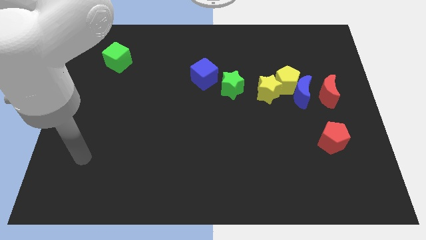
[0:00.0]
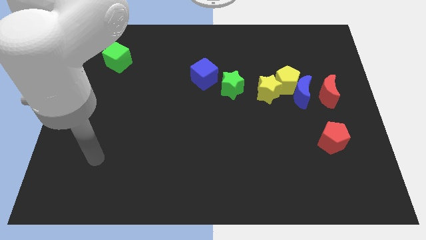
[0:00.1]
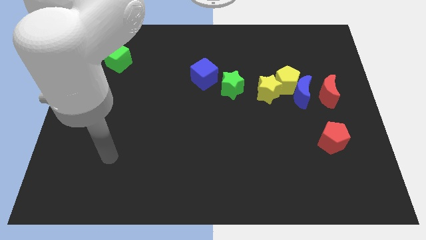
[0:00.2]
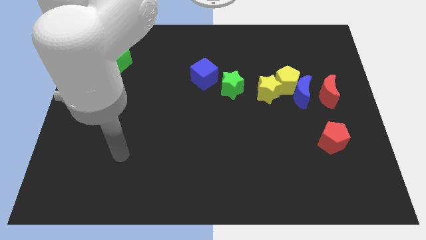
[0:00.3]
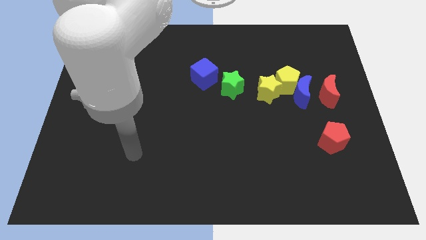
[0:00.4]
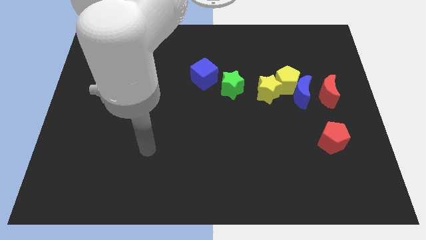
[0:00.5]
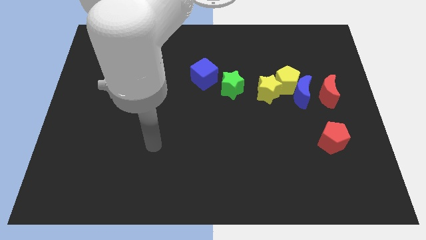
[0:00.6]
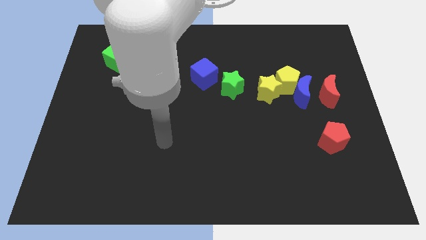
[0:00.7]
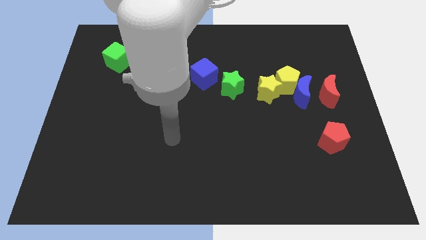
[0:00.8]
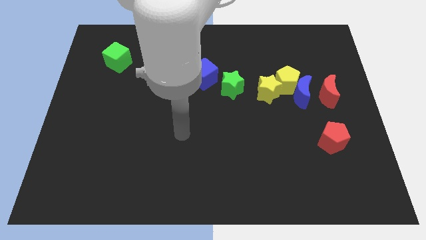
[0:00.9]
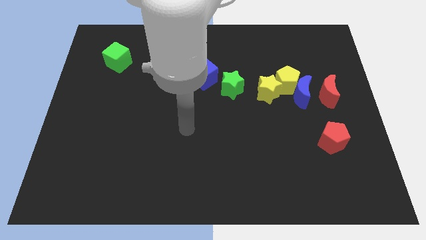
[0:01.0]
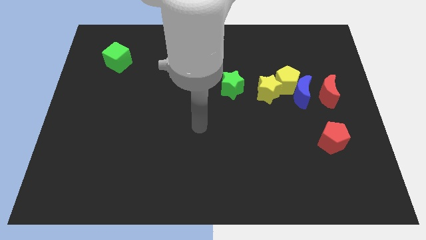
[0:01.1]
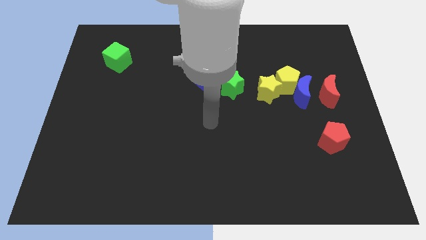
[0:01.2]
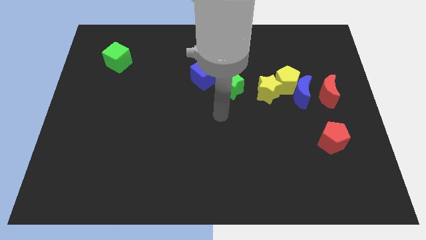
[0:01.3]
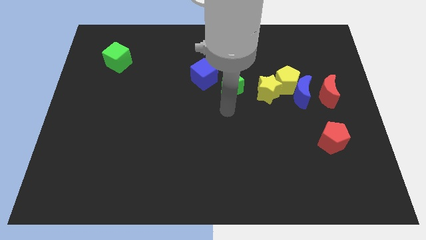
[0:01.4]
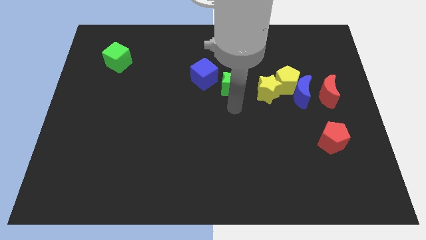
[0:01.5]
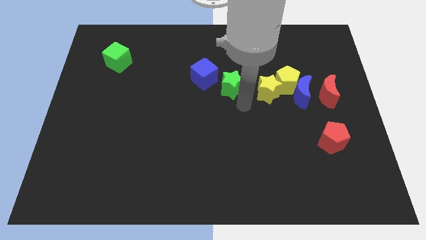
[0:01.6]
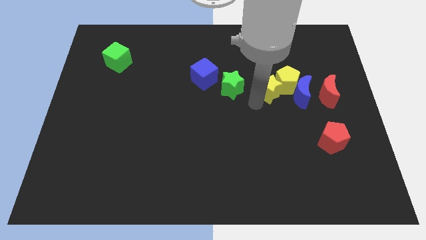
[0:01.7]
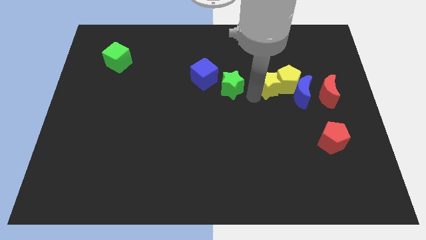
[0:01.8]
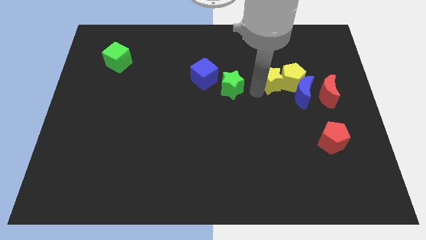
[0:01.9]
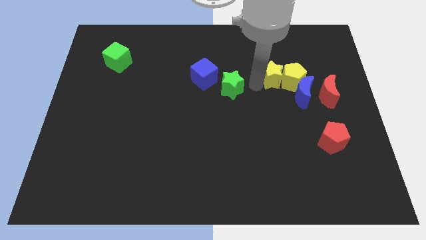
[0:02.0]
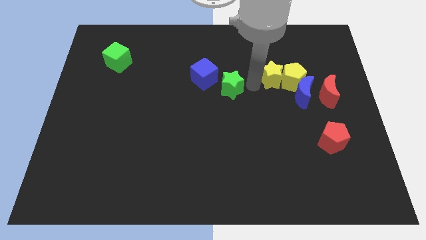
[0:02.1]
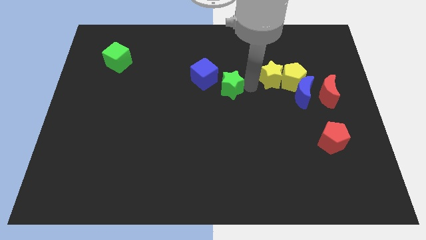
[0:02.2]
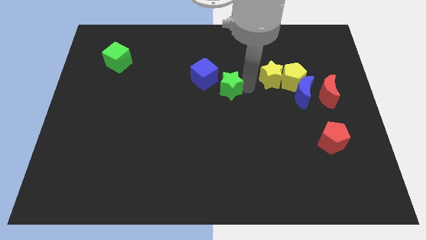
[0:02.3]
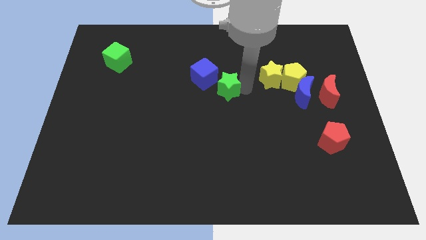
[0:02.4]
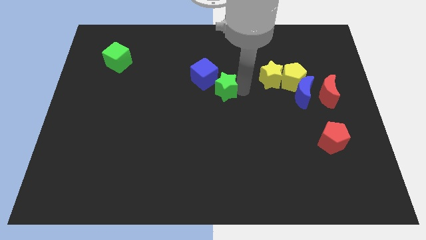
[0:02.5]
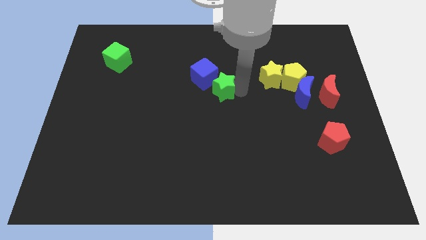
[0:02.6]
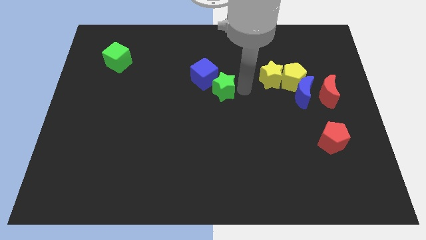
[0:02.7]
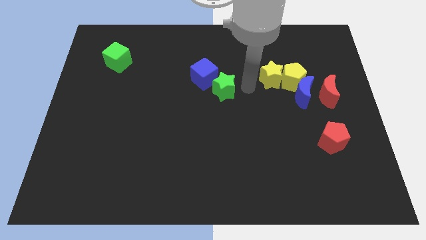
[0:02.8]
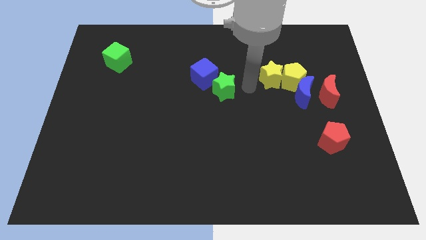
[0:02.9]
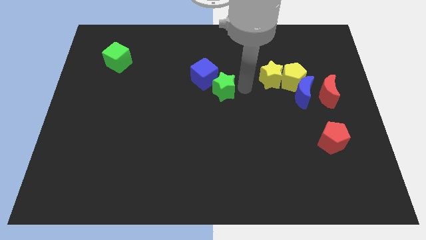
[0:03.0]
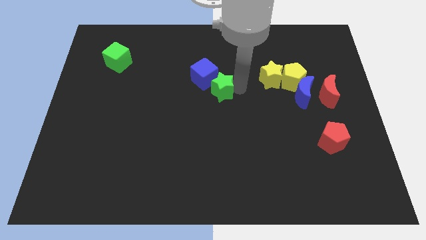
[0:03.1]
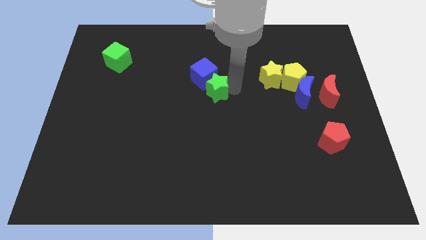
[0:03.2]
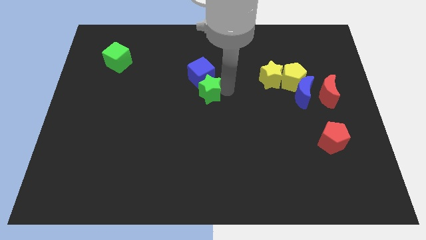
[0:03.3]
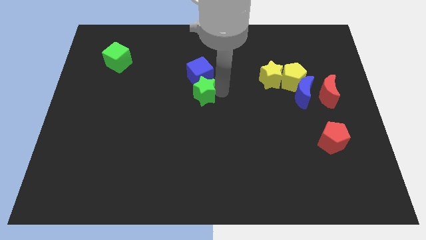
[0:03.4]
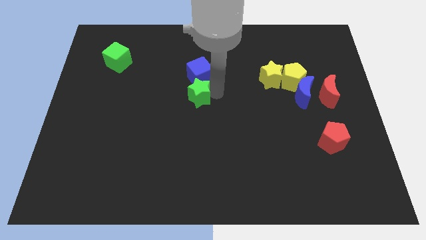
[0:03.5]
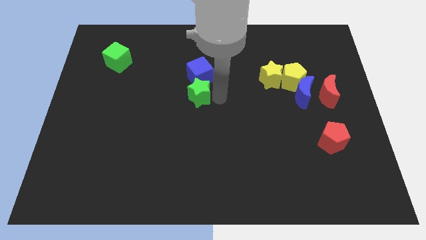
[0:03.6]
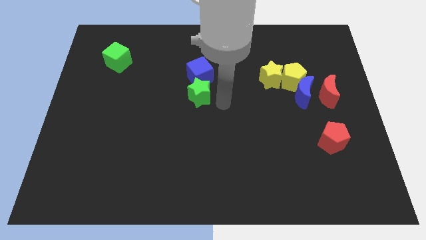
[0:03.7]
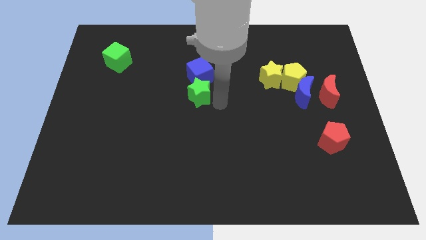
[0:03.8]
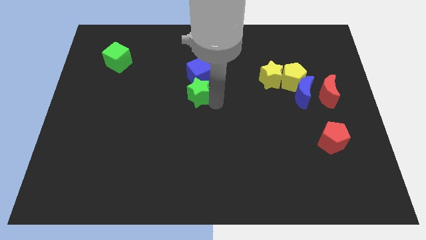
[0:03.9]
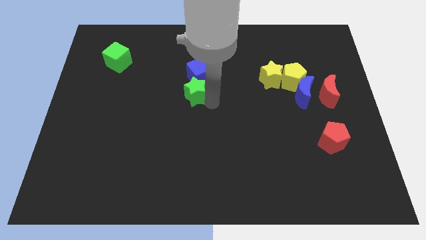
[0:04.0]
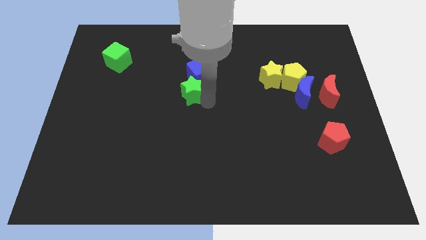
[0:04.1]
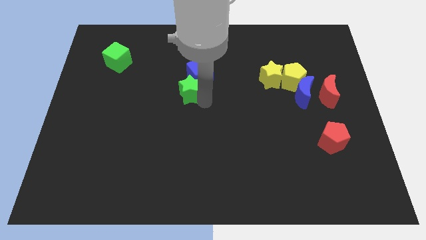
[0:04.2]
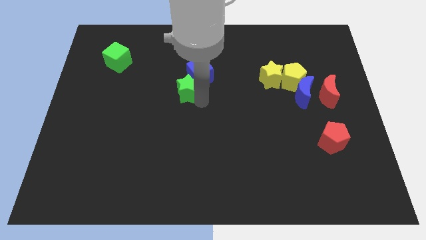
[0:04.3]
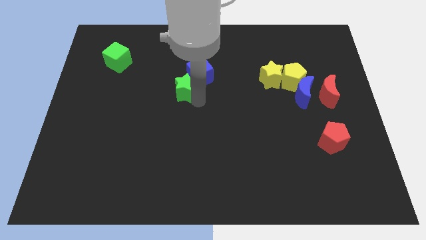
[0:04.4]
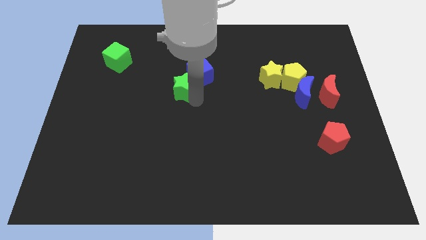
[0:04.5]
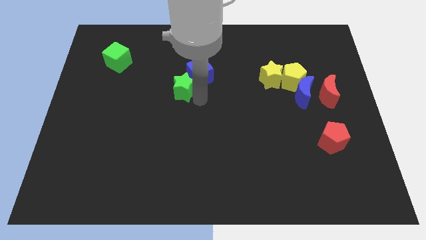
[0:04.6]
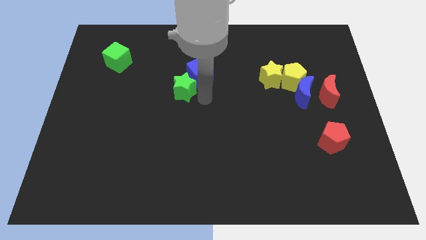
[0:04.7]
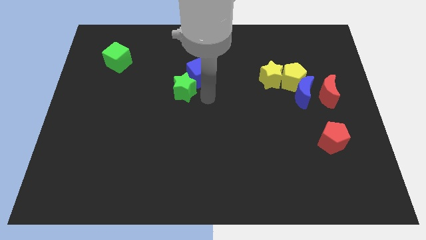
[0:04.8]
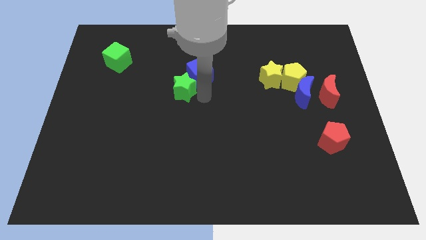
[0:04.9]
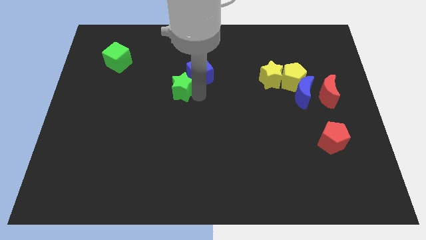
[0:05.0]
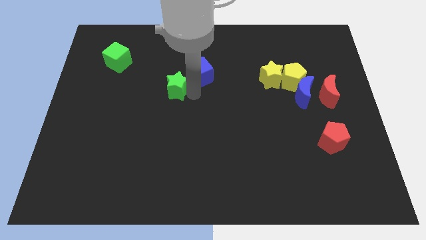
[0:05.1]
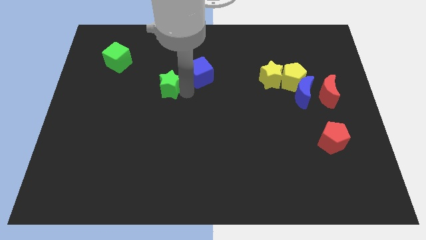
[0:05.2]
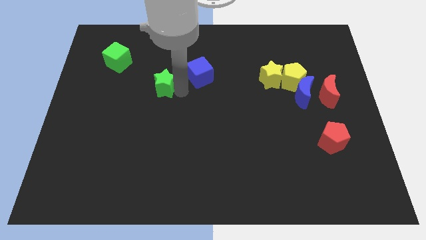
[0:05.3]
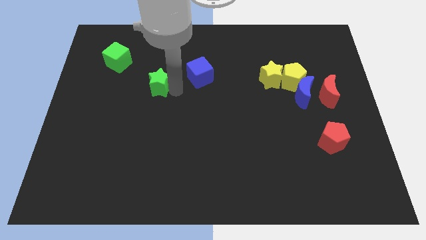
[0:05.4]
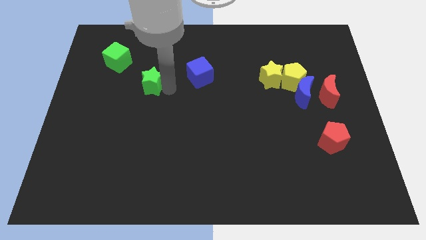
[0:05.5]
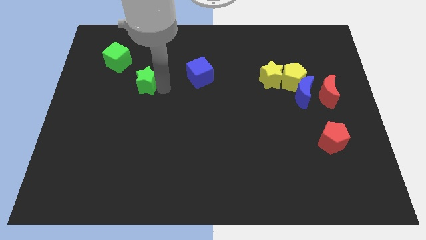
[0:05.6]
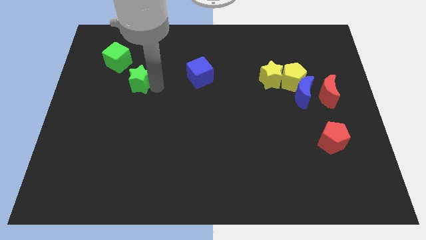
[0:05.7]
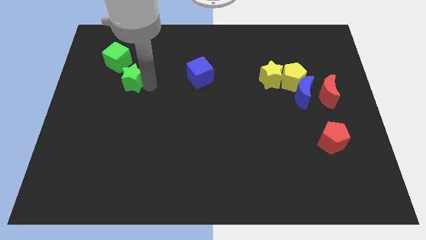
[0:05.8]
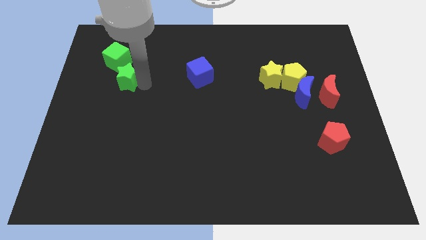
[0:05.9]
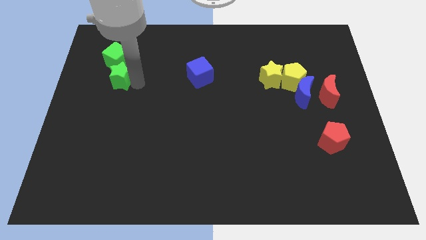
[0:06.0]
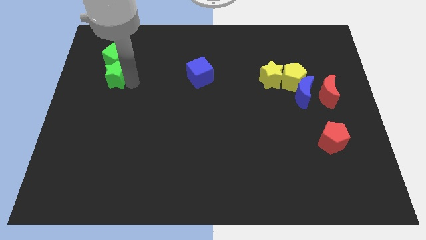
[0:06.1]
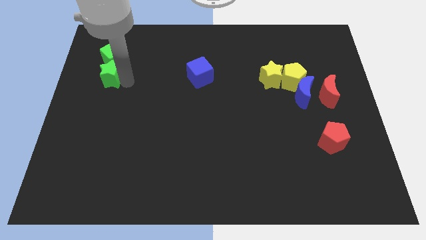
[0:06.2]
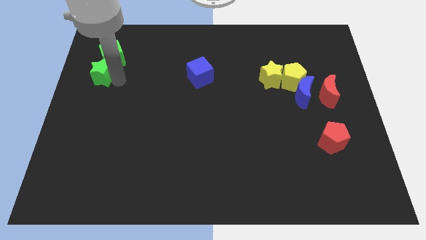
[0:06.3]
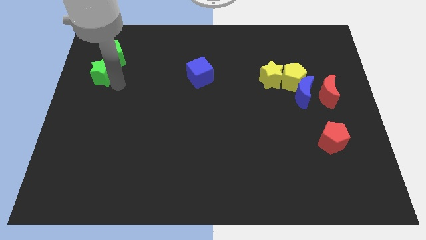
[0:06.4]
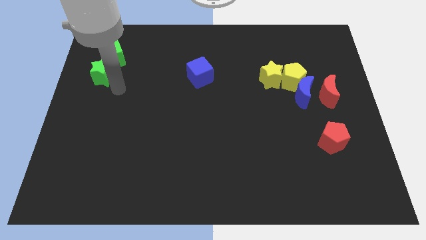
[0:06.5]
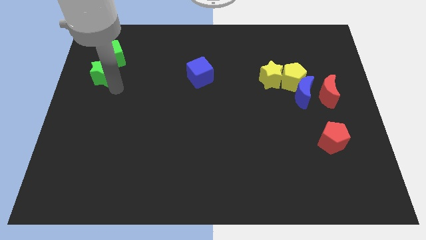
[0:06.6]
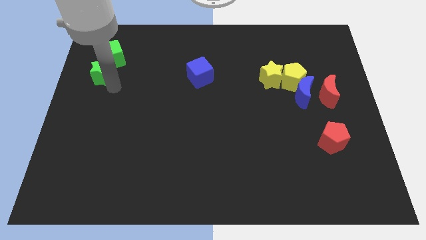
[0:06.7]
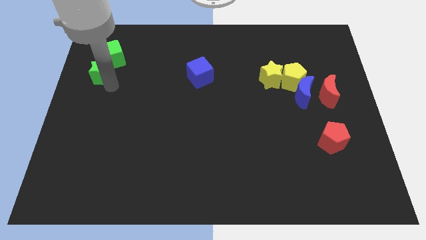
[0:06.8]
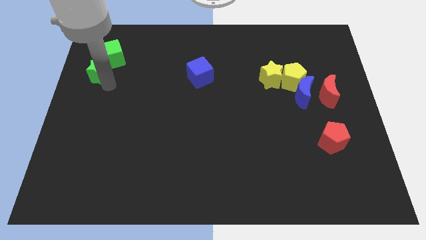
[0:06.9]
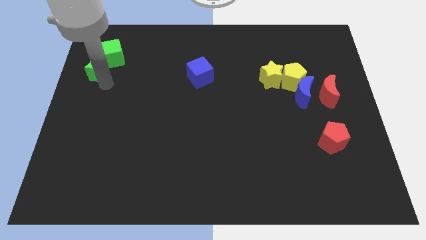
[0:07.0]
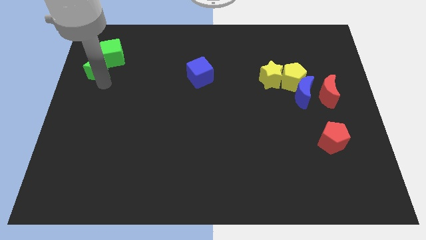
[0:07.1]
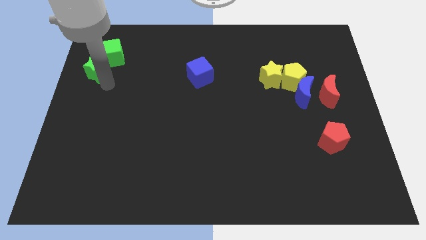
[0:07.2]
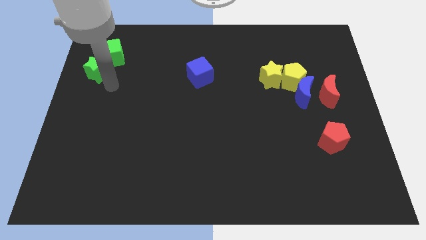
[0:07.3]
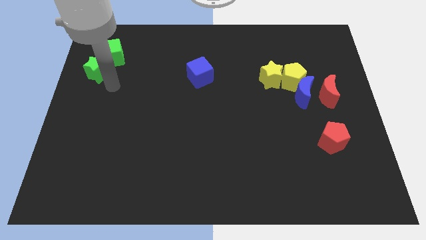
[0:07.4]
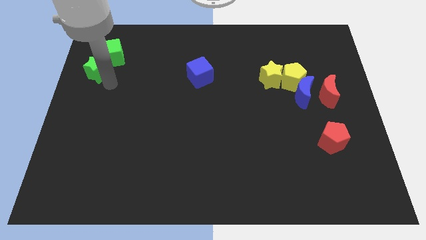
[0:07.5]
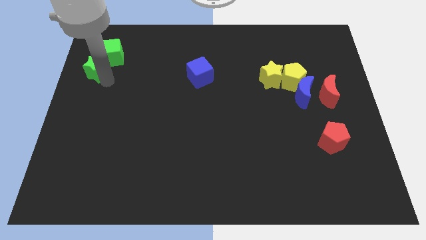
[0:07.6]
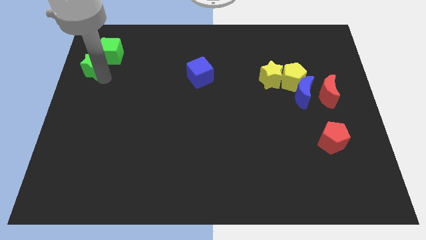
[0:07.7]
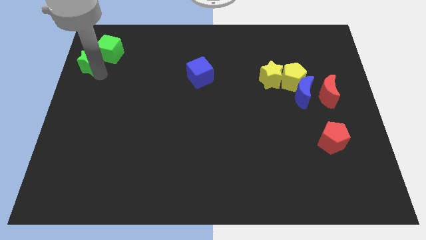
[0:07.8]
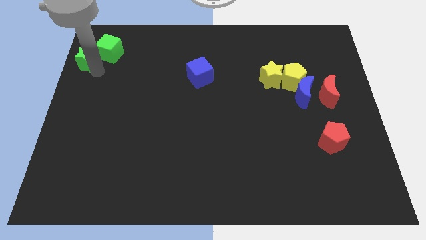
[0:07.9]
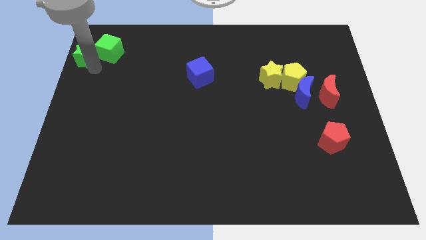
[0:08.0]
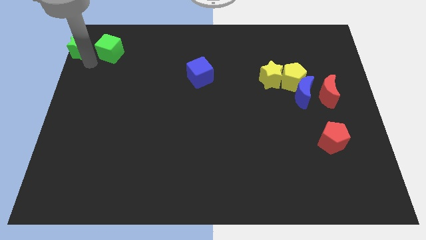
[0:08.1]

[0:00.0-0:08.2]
put the green star to the top left of the board
